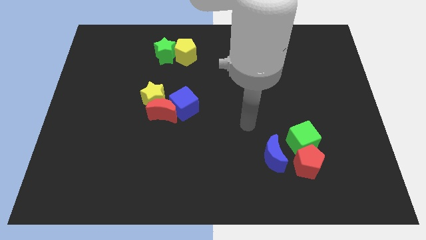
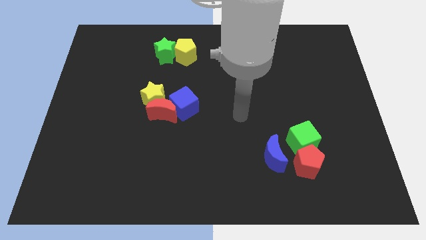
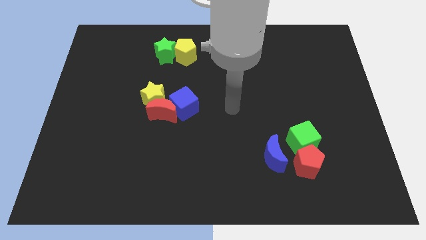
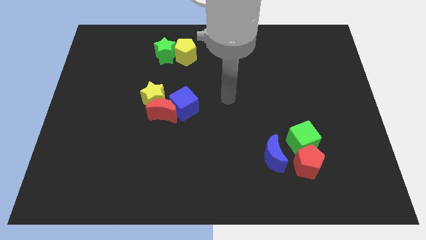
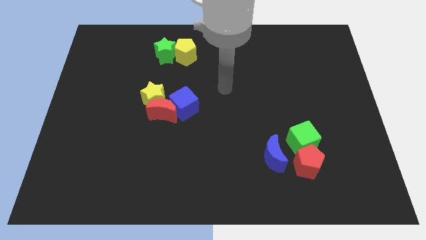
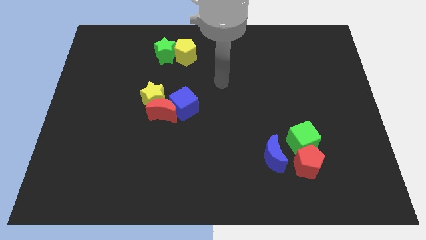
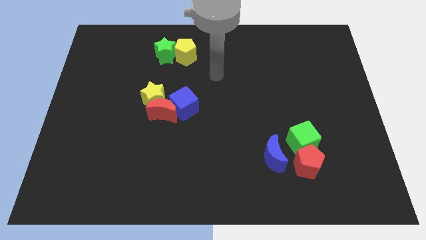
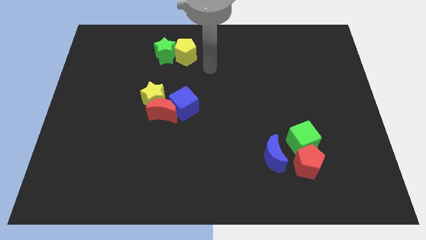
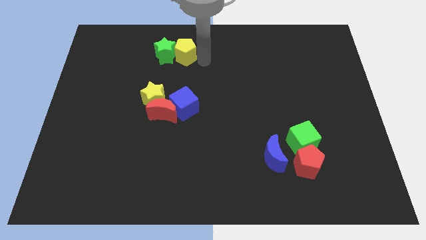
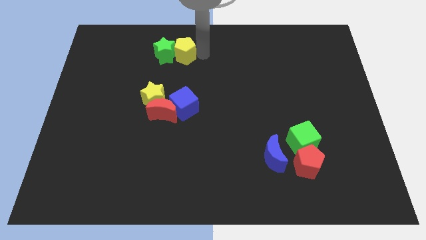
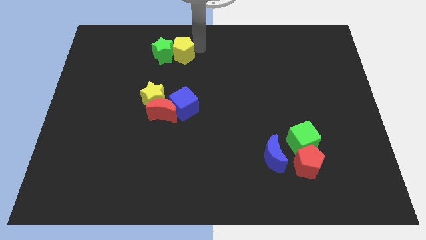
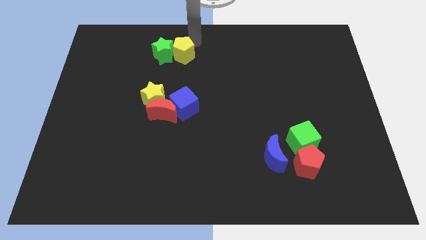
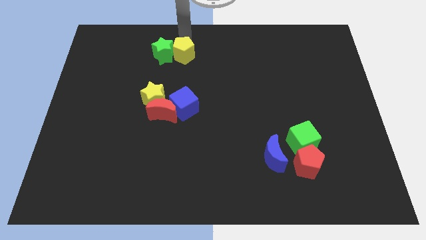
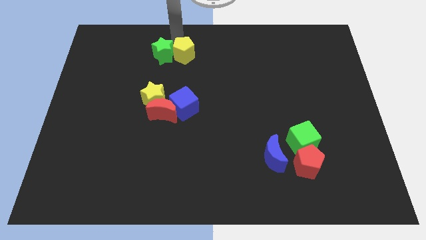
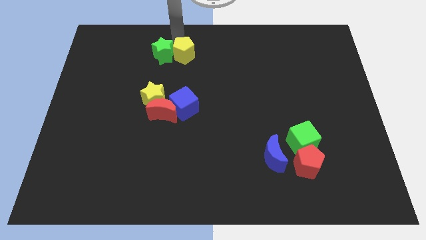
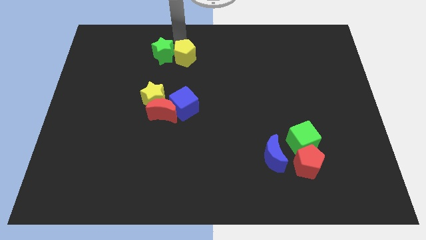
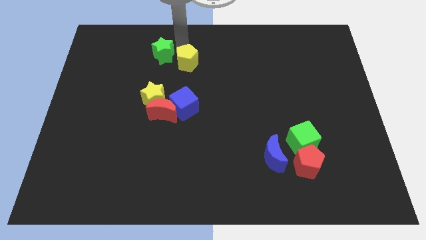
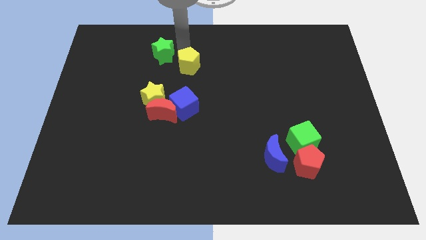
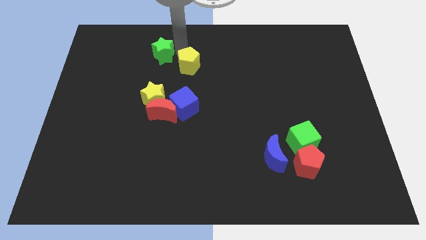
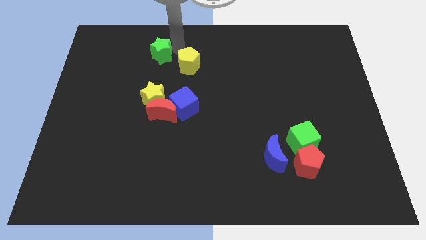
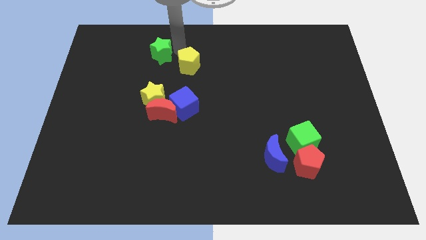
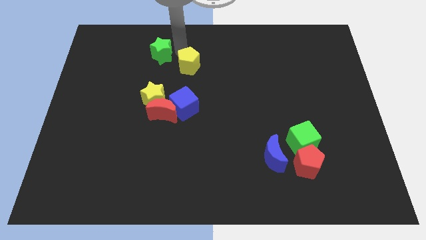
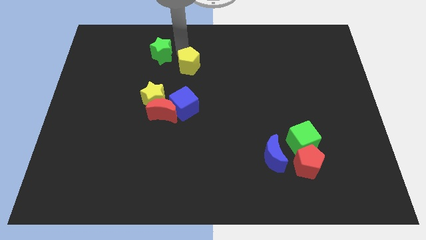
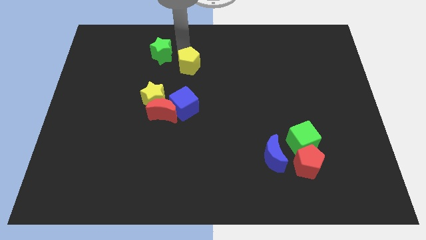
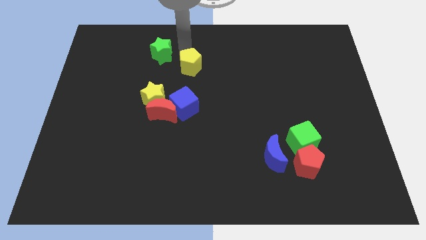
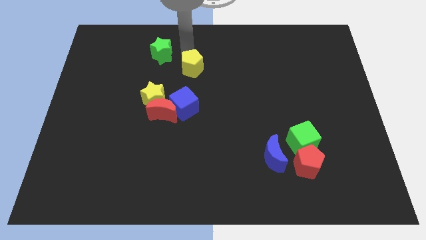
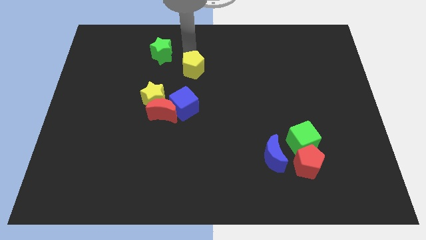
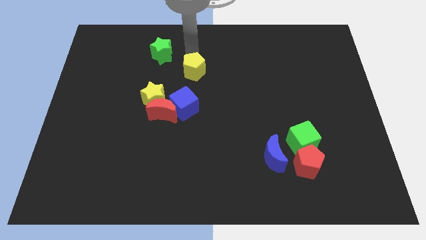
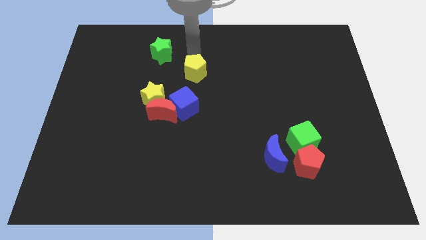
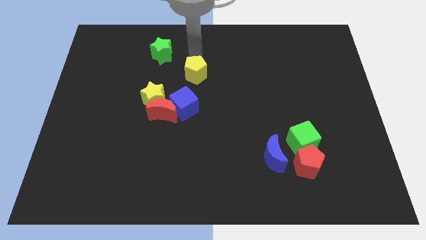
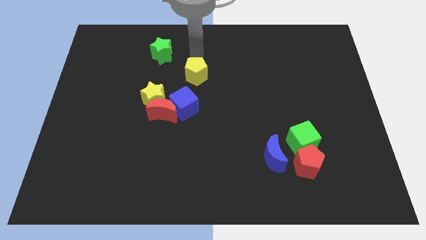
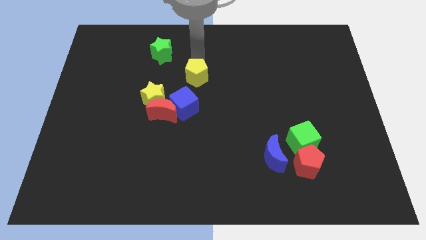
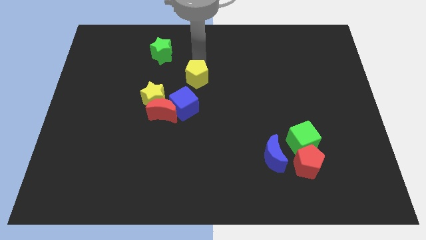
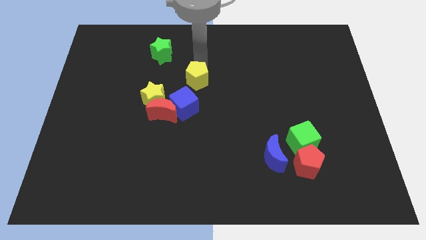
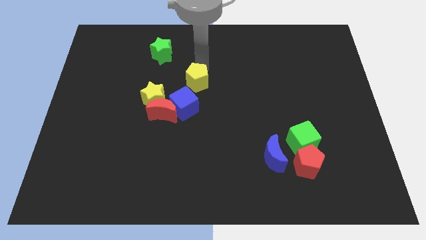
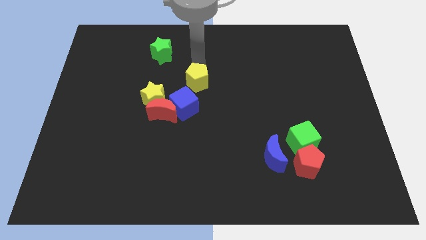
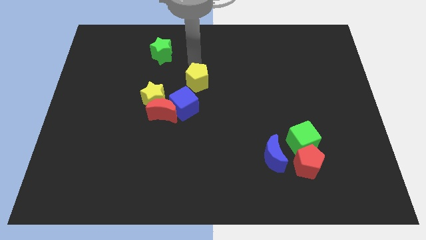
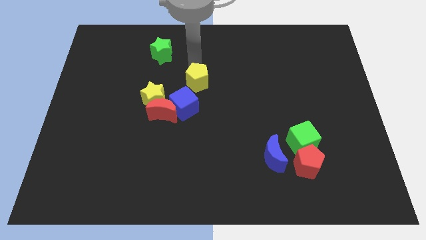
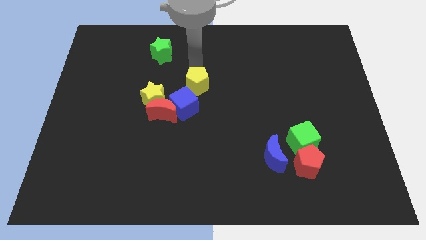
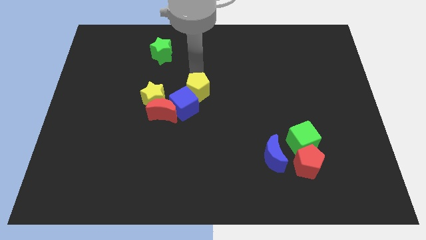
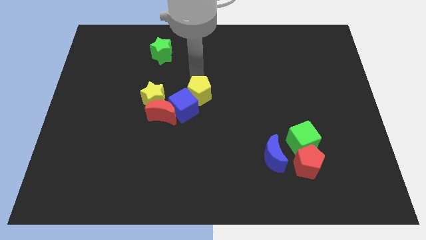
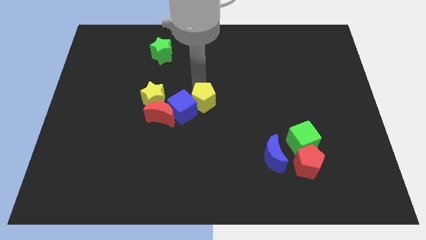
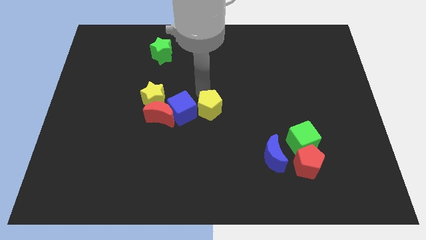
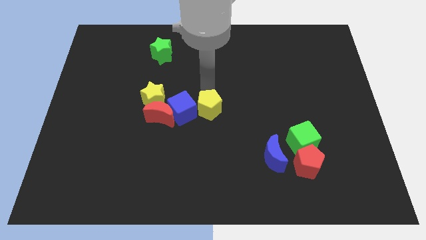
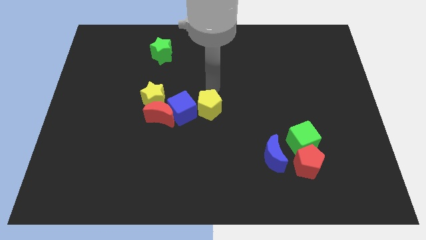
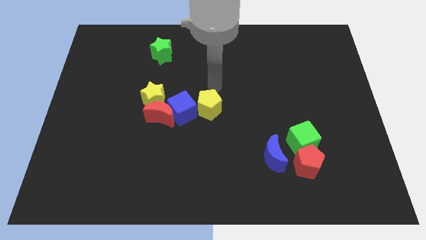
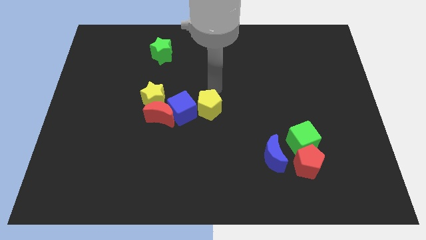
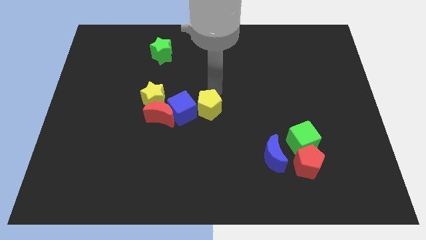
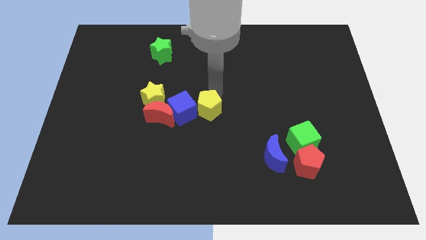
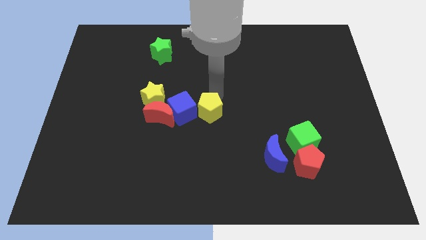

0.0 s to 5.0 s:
put the yellow pentagon diagonally down and to the right of the blue cube

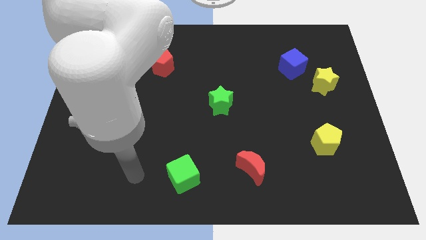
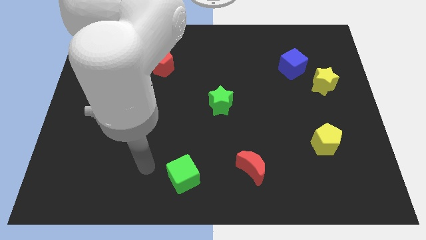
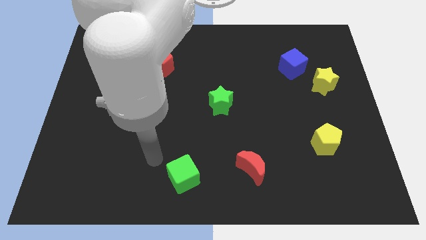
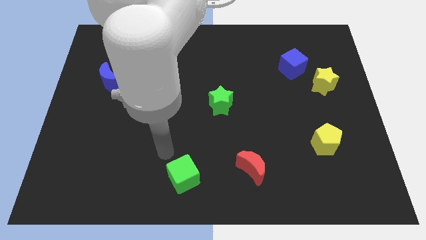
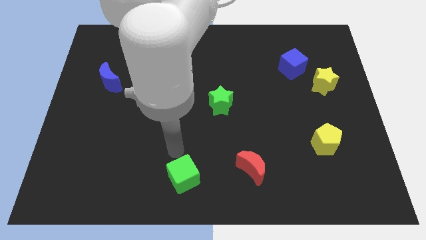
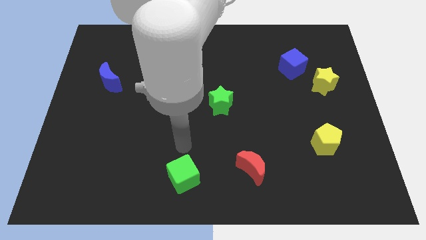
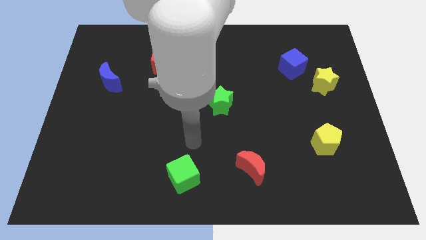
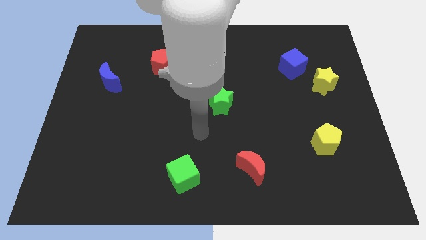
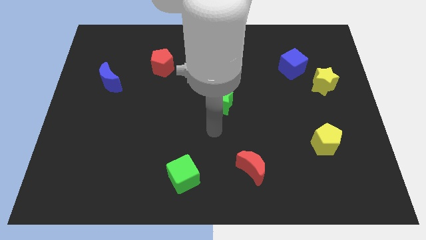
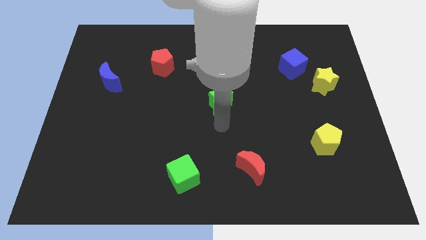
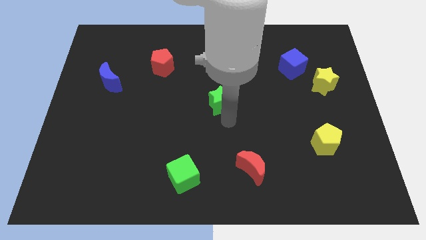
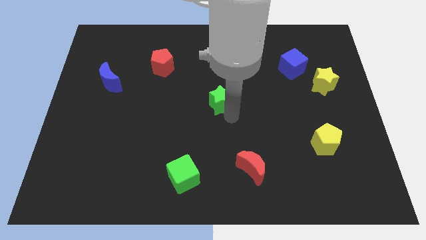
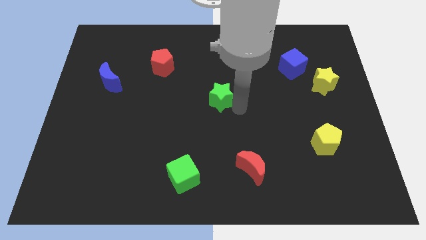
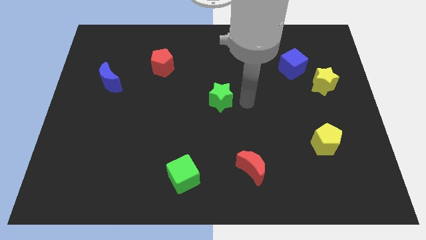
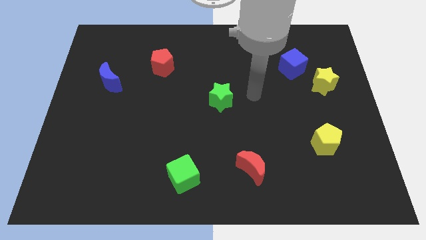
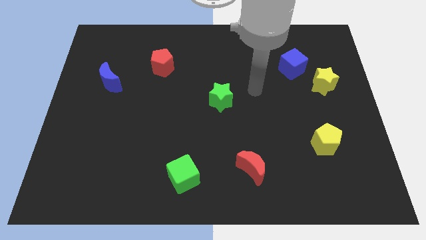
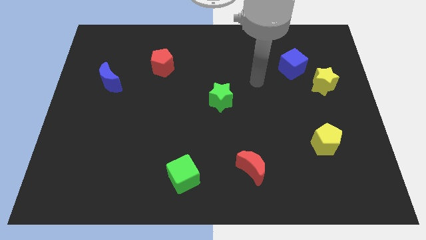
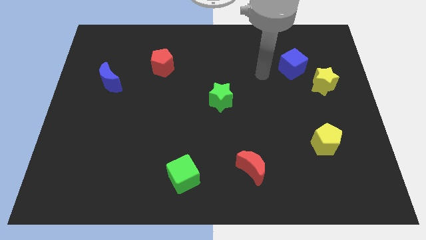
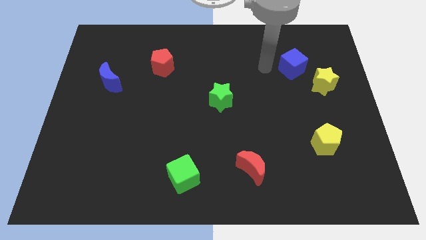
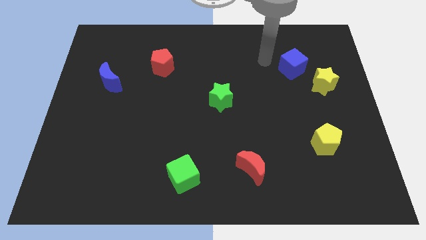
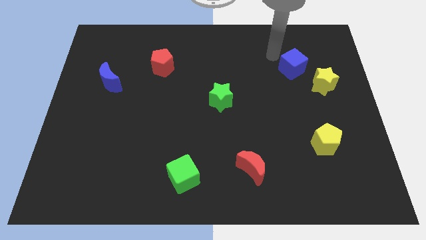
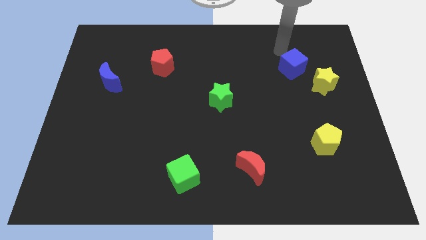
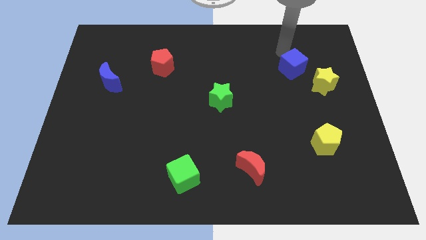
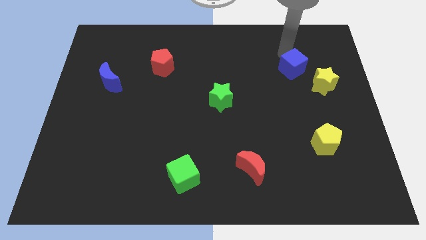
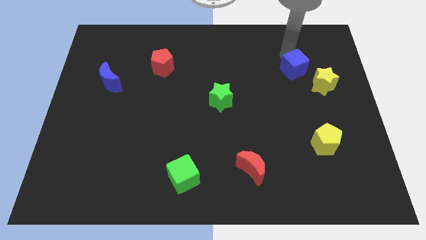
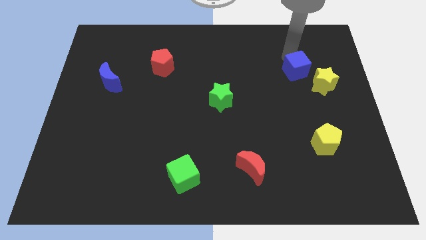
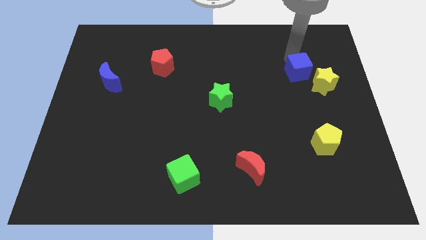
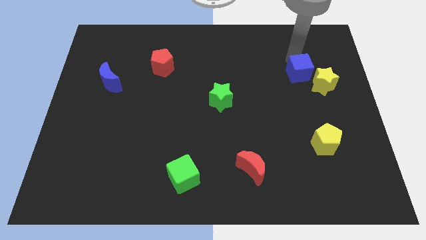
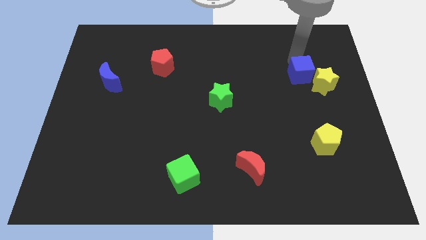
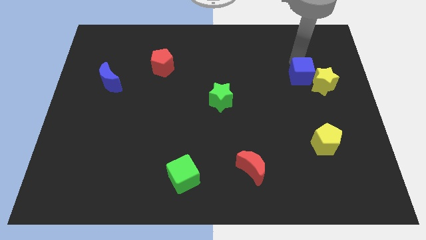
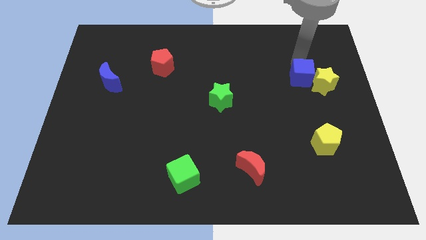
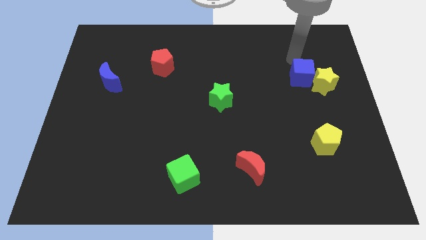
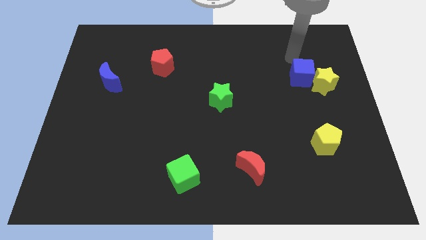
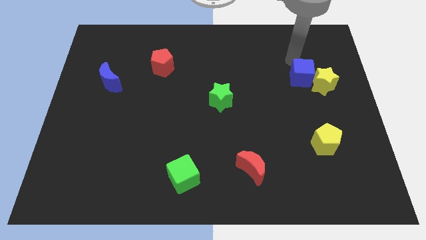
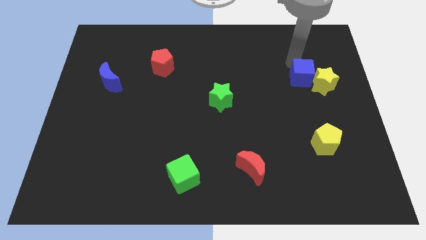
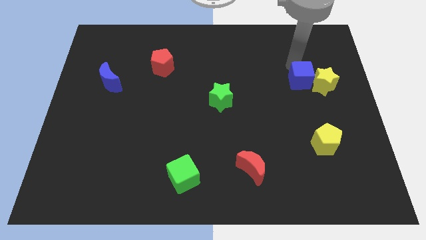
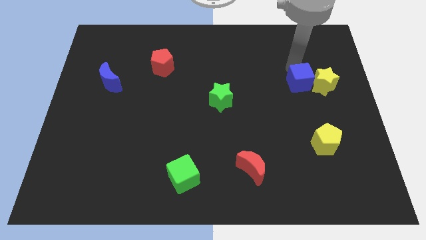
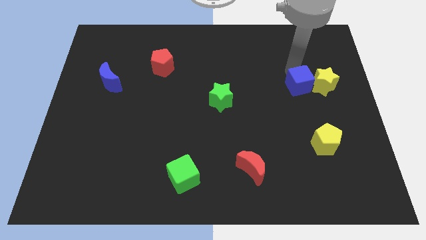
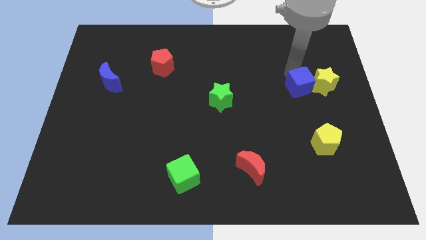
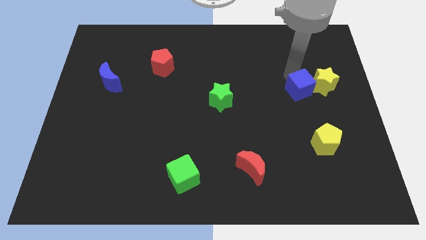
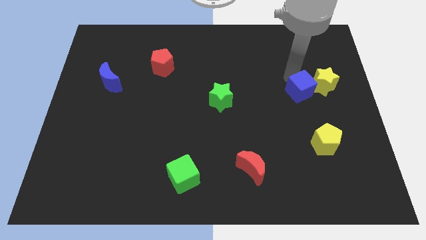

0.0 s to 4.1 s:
move the blue cube above the yellow pentagon
